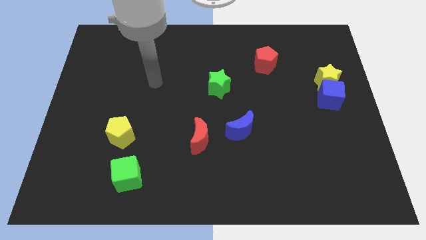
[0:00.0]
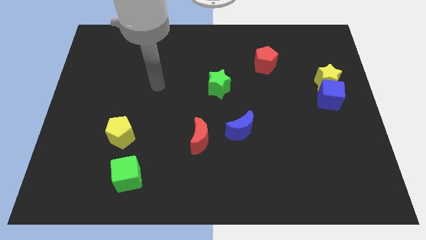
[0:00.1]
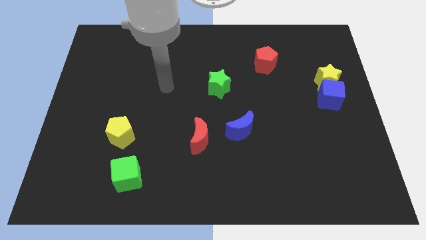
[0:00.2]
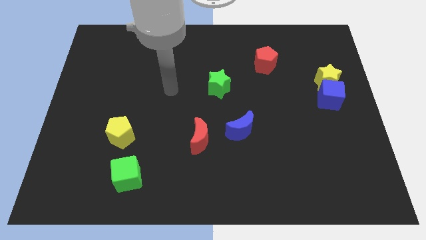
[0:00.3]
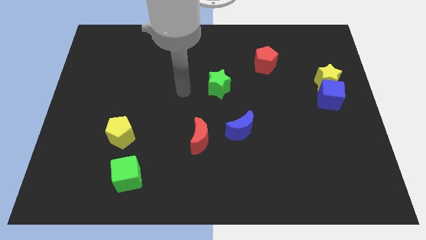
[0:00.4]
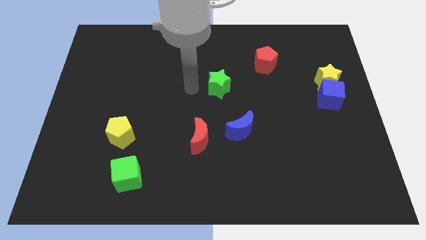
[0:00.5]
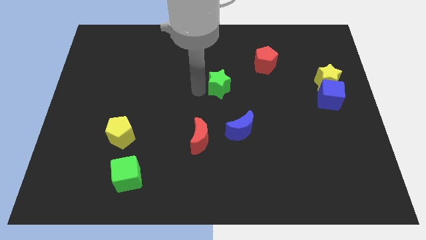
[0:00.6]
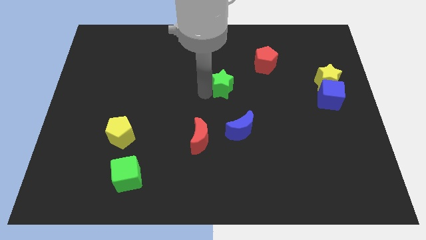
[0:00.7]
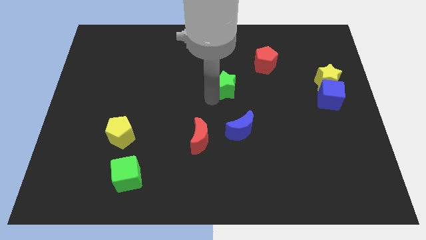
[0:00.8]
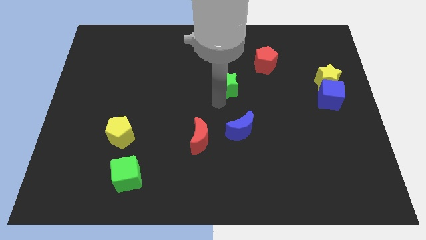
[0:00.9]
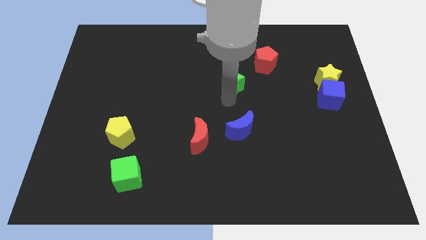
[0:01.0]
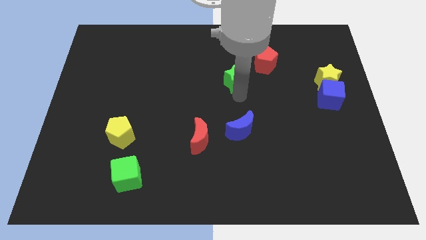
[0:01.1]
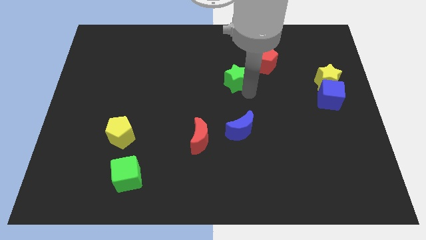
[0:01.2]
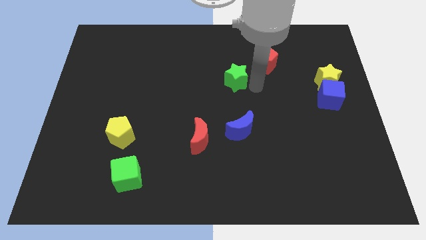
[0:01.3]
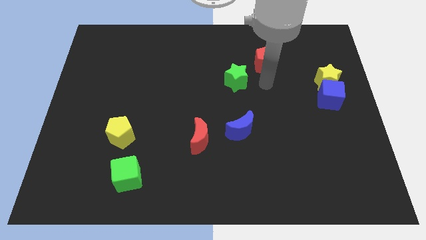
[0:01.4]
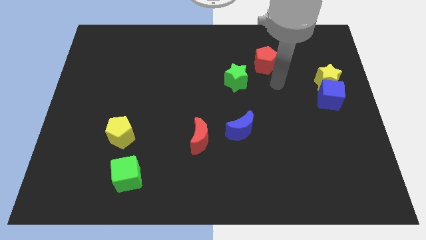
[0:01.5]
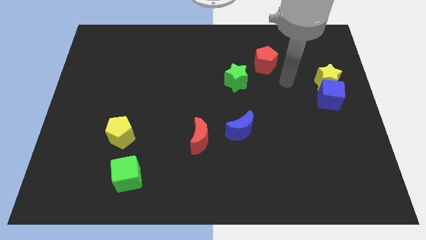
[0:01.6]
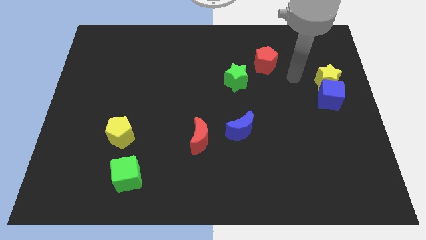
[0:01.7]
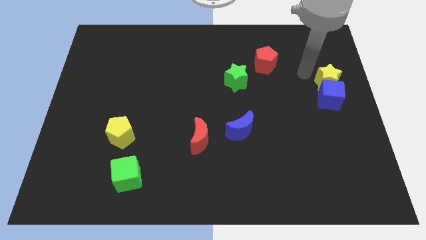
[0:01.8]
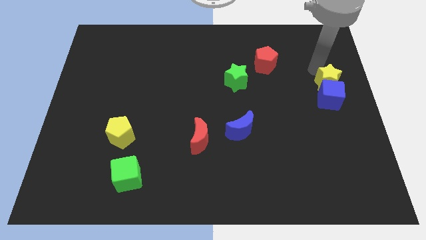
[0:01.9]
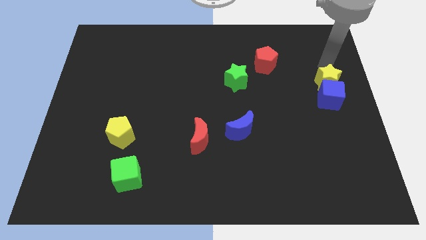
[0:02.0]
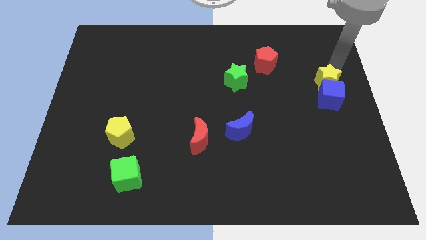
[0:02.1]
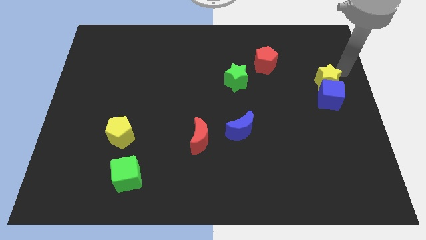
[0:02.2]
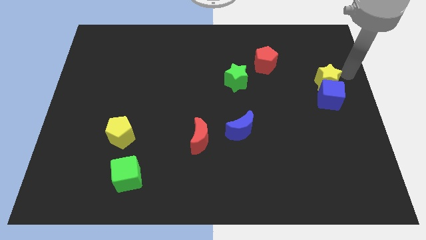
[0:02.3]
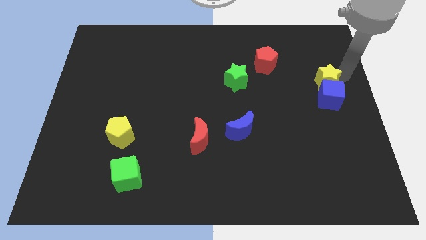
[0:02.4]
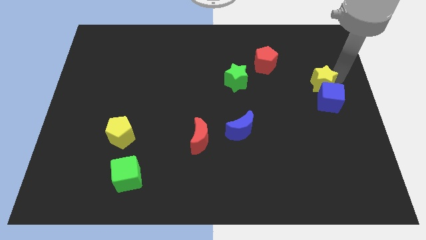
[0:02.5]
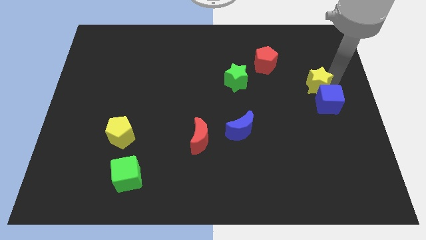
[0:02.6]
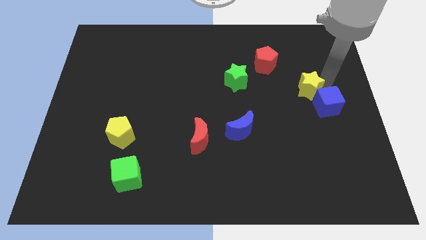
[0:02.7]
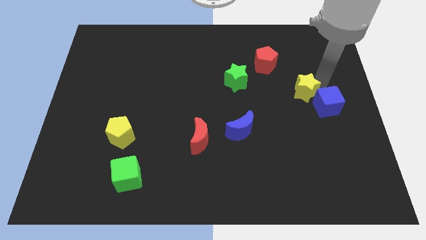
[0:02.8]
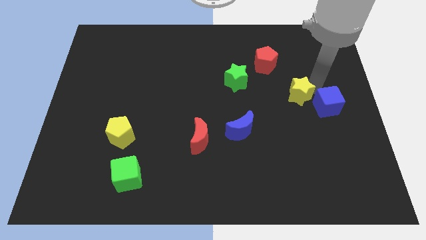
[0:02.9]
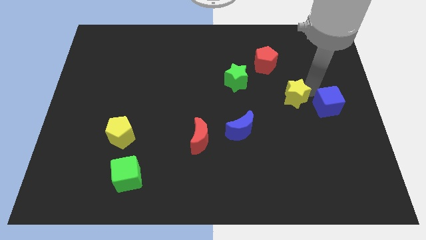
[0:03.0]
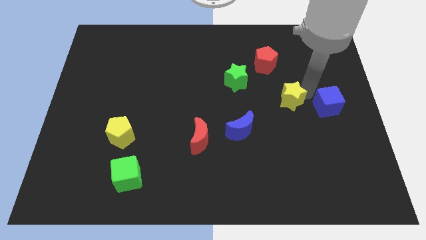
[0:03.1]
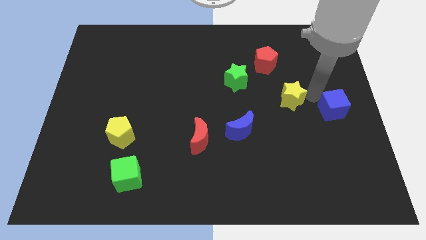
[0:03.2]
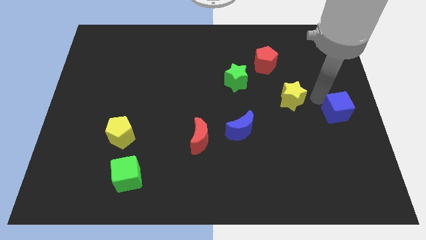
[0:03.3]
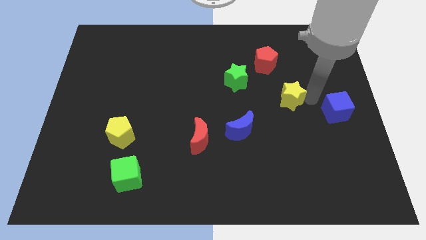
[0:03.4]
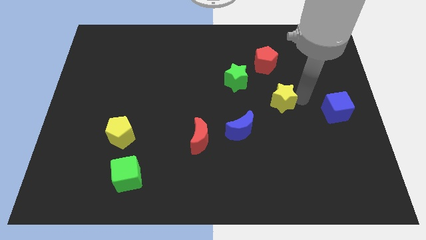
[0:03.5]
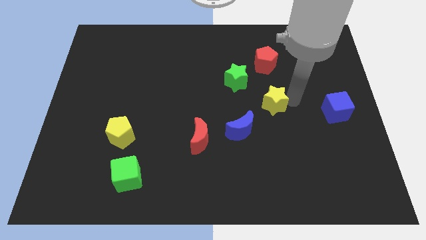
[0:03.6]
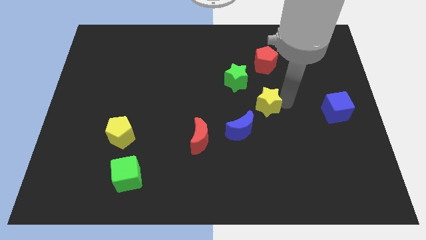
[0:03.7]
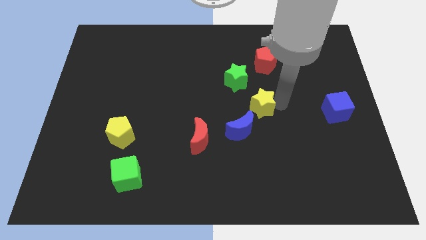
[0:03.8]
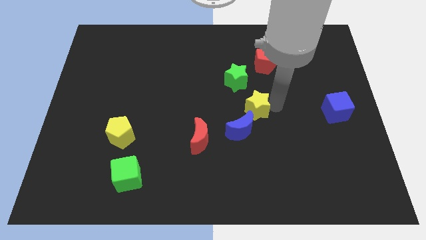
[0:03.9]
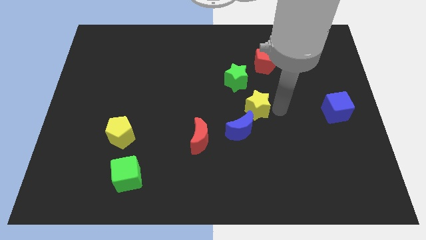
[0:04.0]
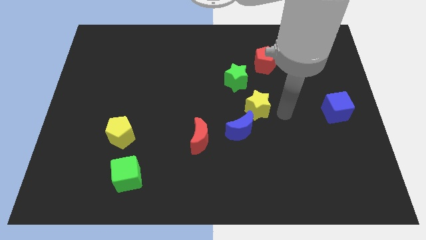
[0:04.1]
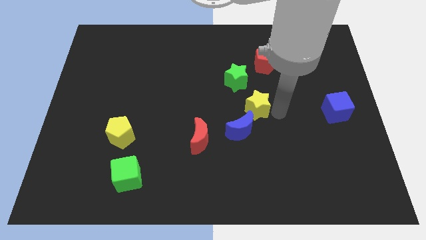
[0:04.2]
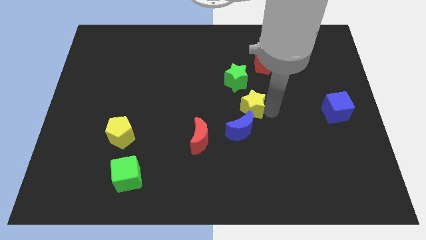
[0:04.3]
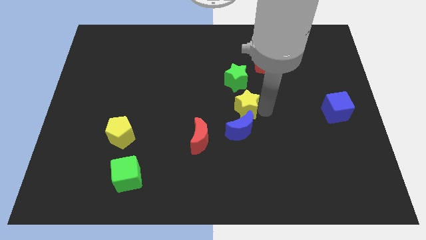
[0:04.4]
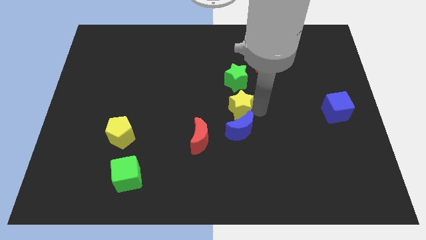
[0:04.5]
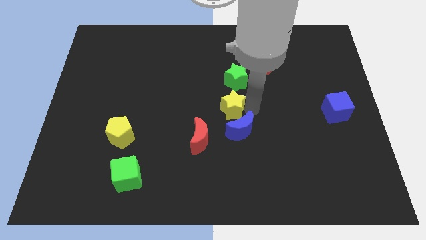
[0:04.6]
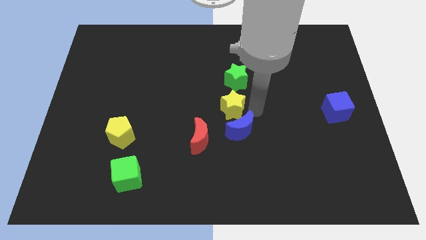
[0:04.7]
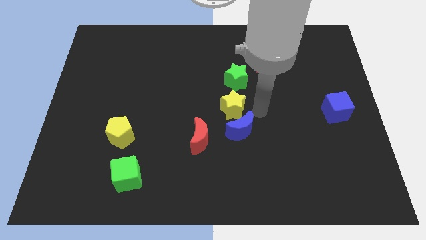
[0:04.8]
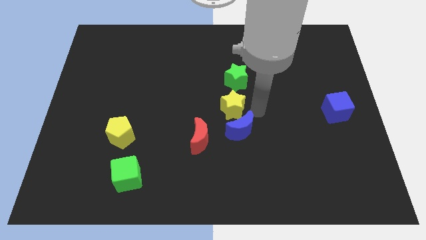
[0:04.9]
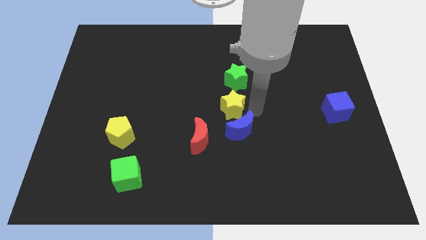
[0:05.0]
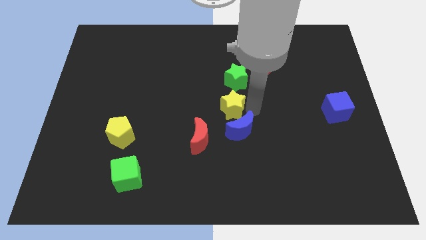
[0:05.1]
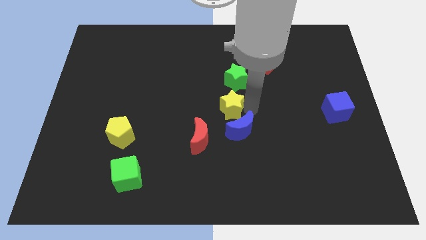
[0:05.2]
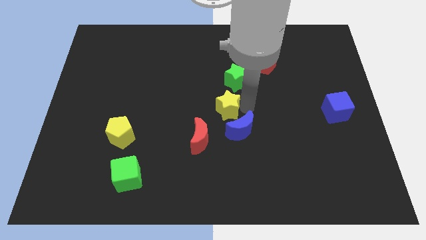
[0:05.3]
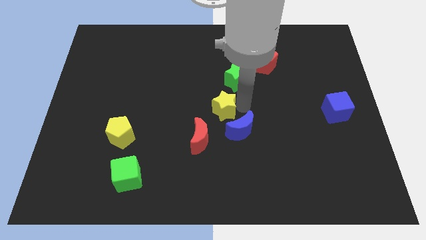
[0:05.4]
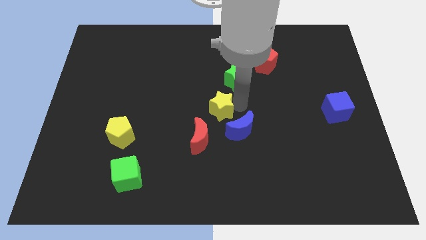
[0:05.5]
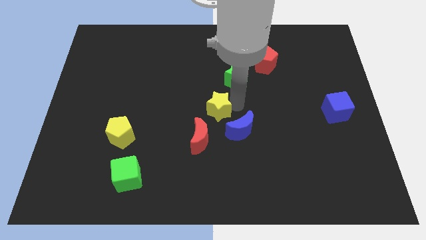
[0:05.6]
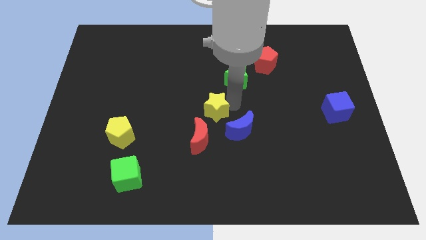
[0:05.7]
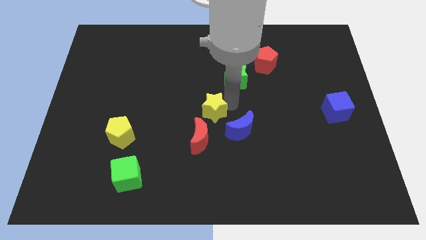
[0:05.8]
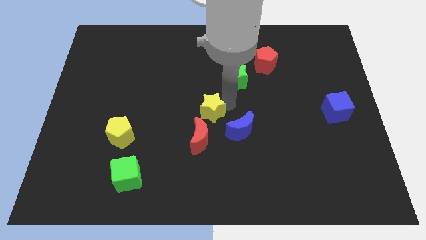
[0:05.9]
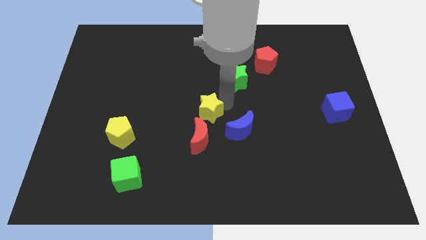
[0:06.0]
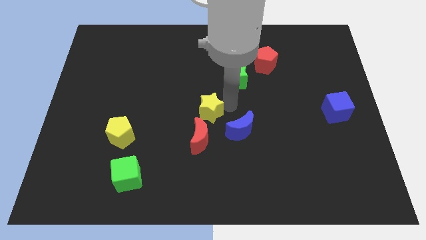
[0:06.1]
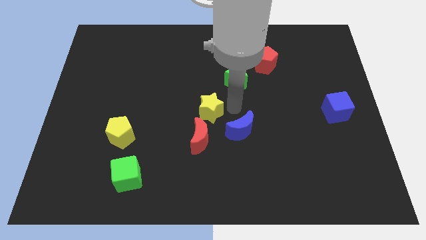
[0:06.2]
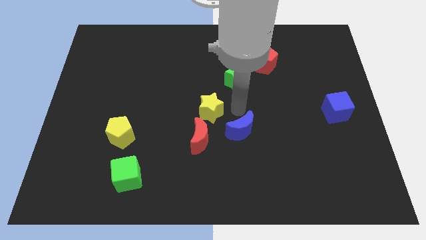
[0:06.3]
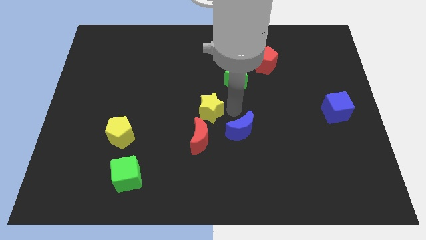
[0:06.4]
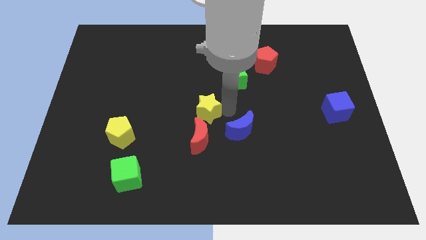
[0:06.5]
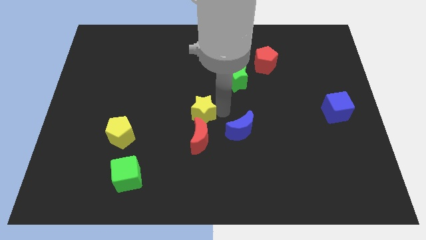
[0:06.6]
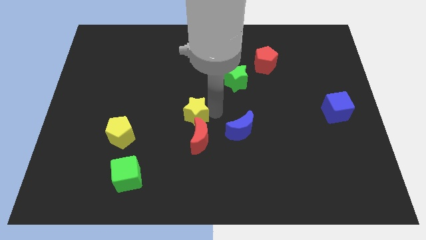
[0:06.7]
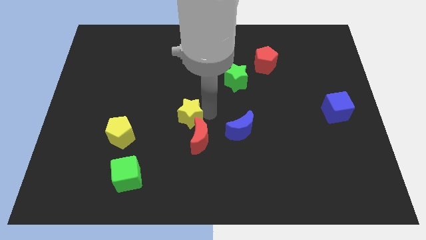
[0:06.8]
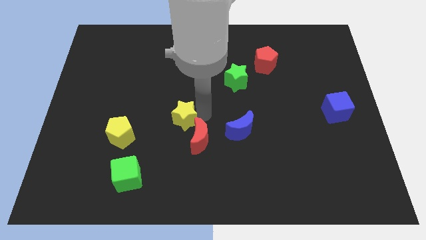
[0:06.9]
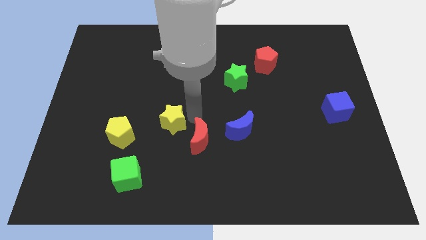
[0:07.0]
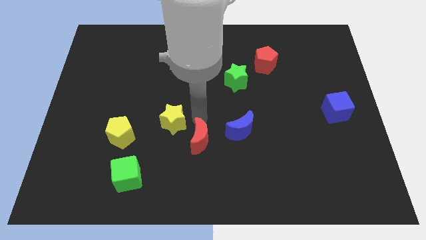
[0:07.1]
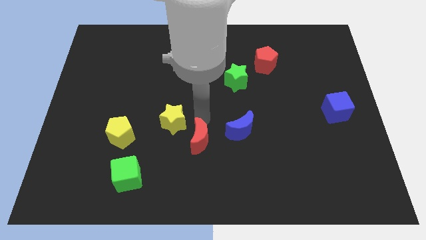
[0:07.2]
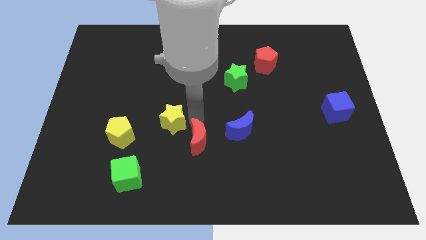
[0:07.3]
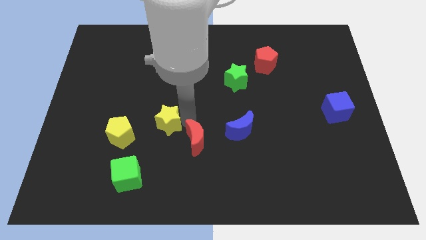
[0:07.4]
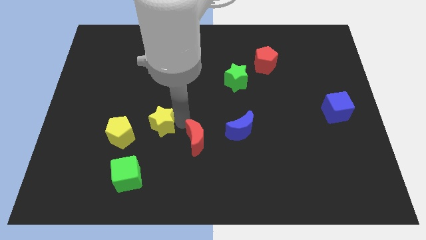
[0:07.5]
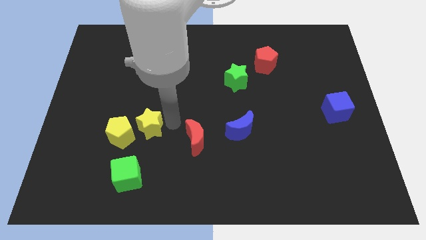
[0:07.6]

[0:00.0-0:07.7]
push the yellow star to the yellow pentagon

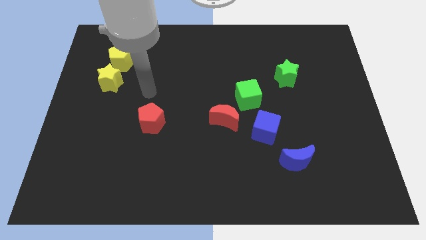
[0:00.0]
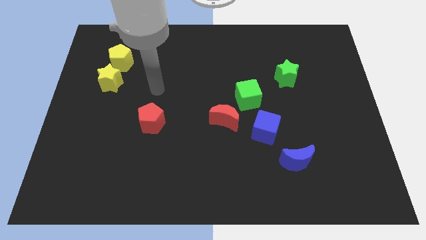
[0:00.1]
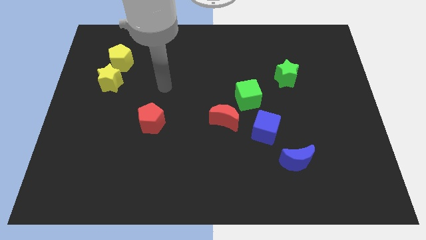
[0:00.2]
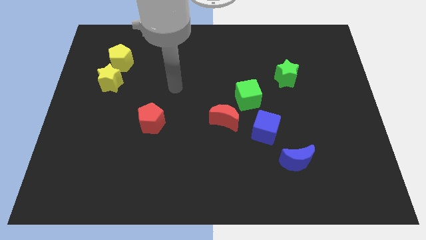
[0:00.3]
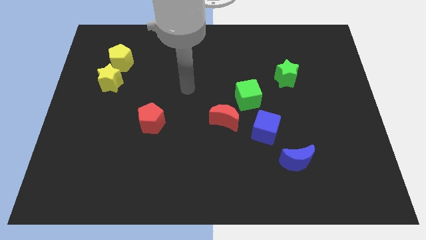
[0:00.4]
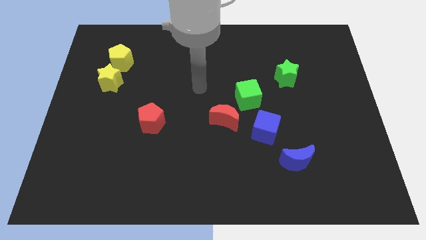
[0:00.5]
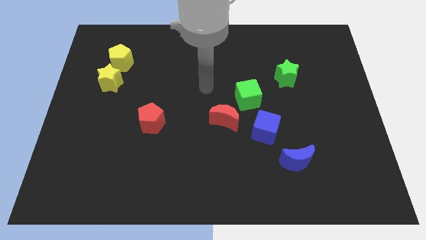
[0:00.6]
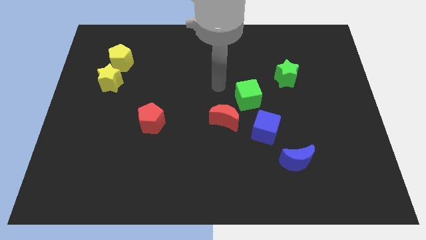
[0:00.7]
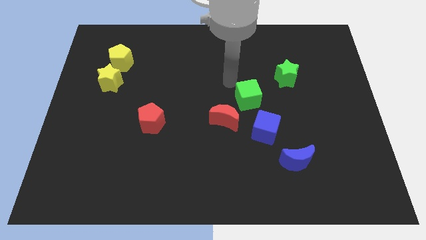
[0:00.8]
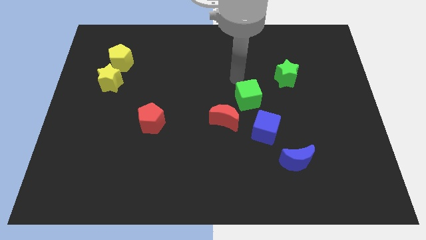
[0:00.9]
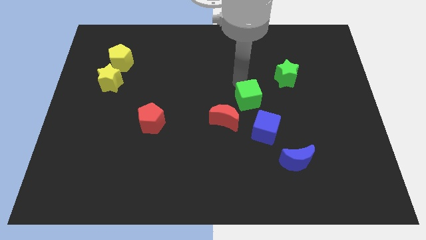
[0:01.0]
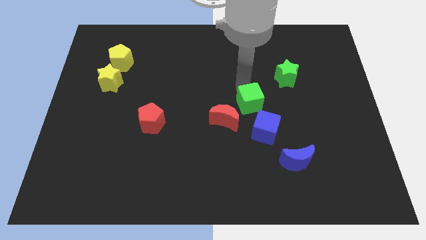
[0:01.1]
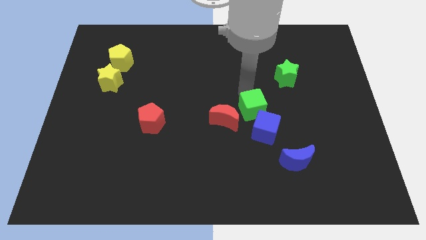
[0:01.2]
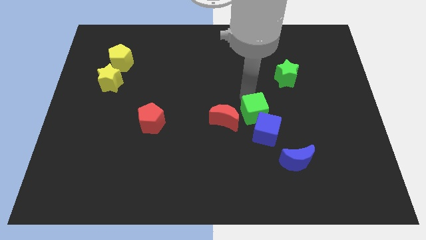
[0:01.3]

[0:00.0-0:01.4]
slide the green cube towards the blue cube
